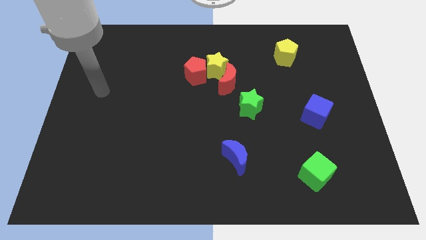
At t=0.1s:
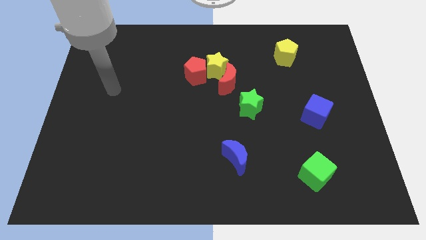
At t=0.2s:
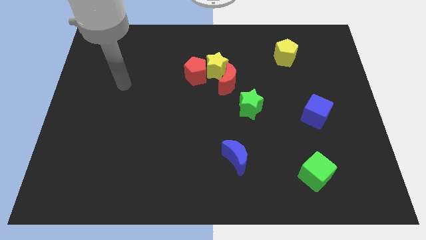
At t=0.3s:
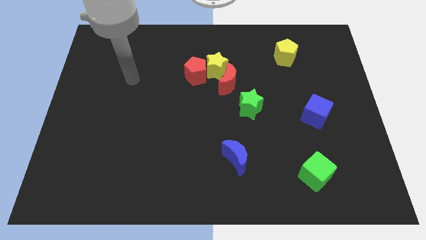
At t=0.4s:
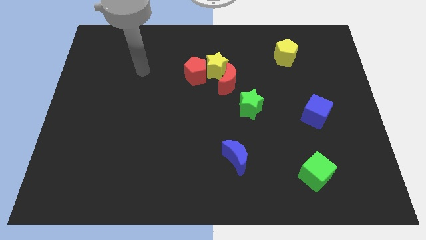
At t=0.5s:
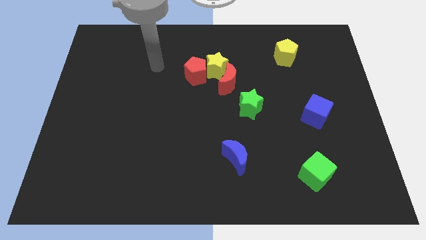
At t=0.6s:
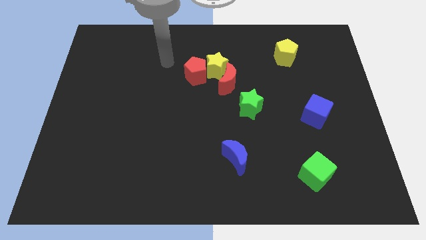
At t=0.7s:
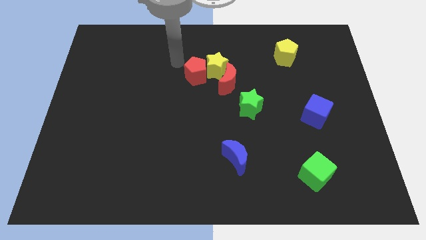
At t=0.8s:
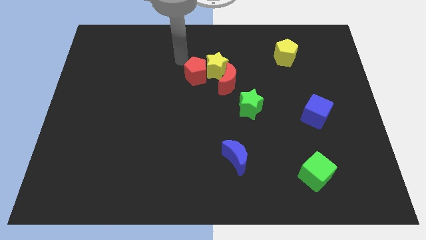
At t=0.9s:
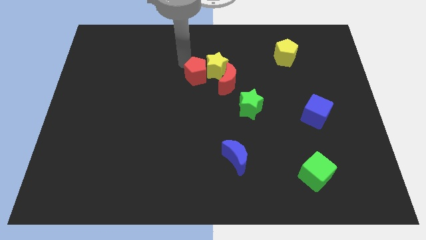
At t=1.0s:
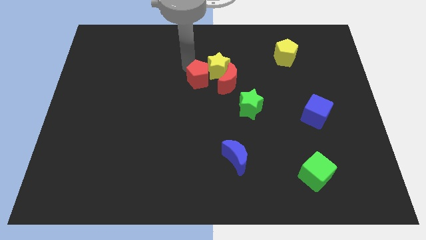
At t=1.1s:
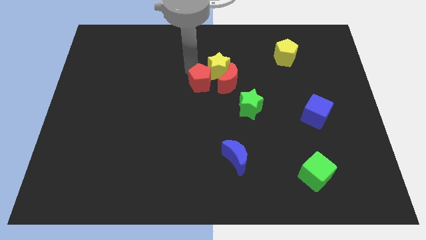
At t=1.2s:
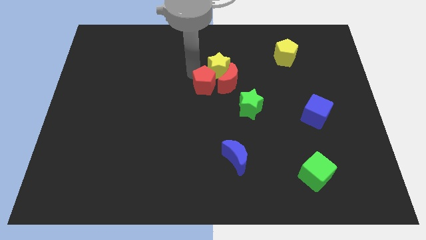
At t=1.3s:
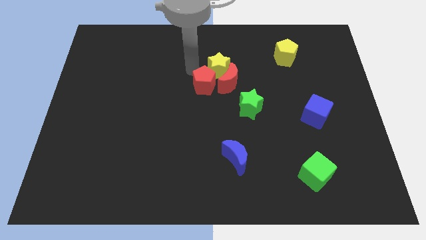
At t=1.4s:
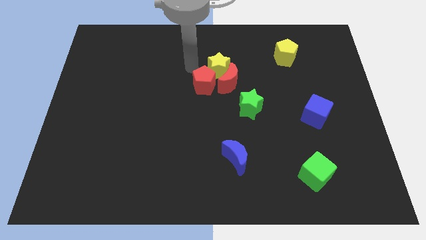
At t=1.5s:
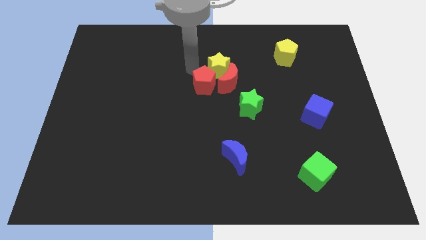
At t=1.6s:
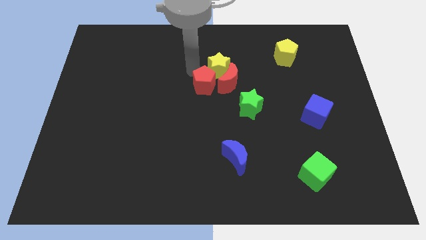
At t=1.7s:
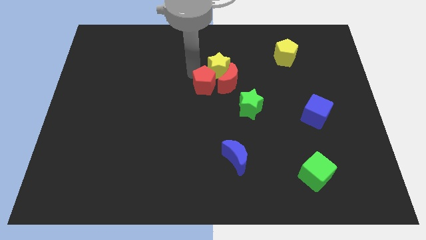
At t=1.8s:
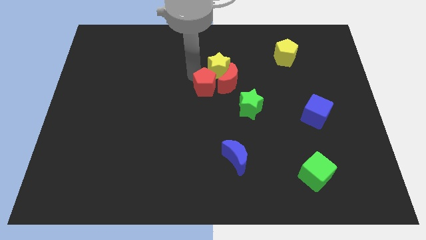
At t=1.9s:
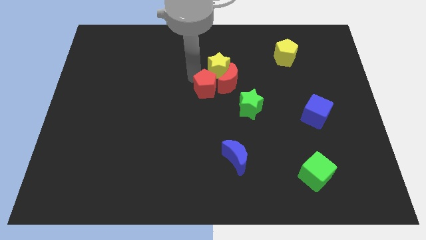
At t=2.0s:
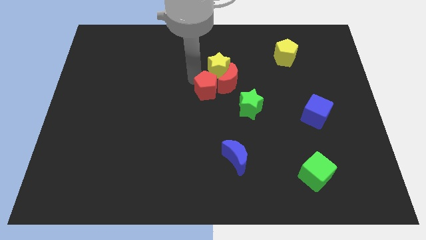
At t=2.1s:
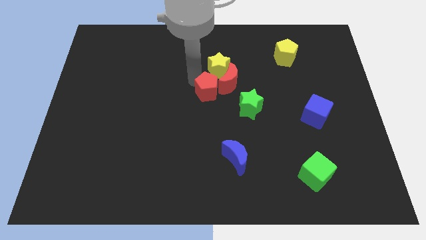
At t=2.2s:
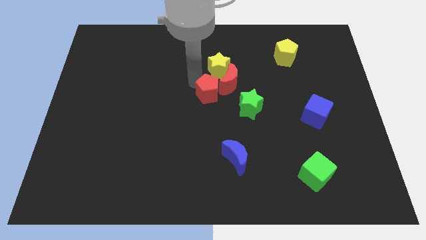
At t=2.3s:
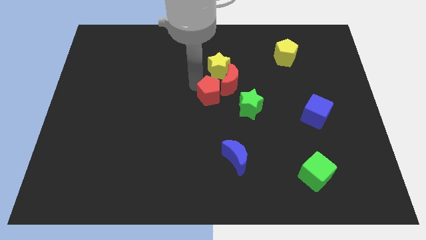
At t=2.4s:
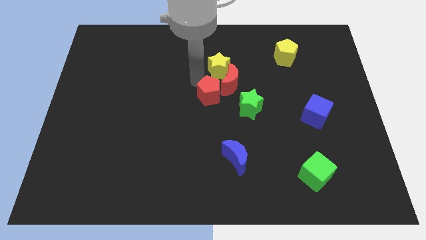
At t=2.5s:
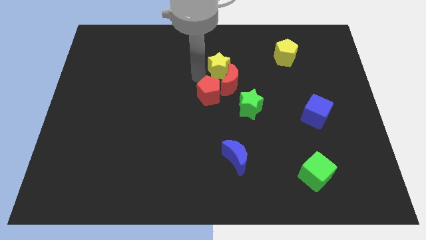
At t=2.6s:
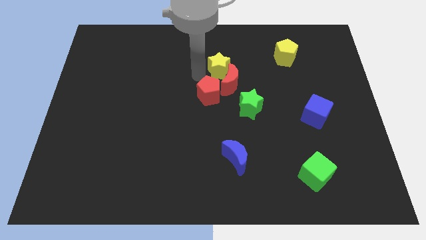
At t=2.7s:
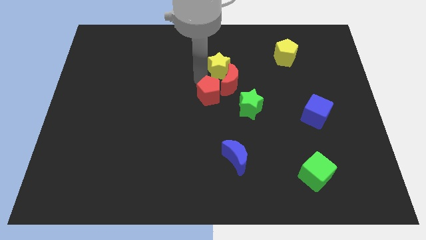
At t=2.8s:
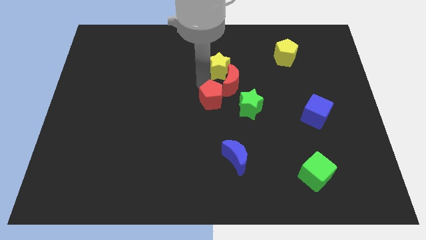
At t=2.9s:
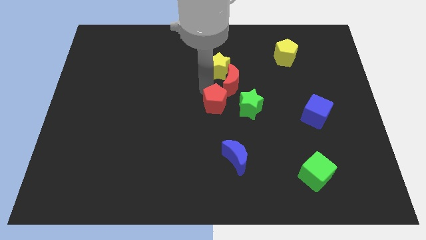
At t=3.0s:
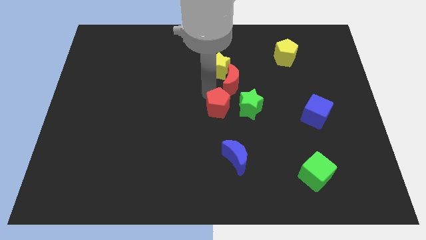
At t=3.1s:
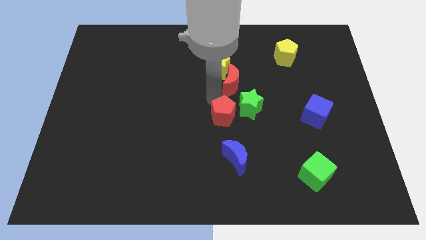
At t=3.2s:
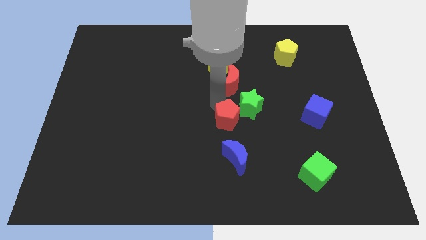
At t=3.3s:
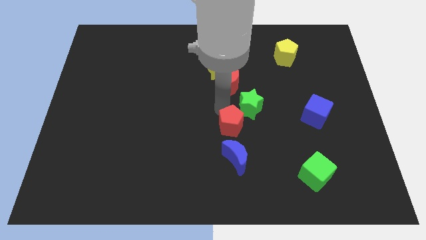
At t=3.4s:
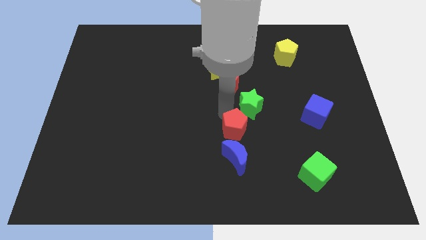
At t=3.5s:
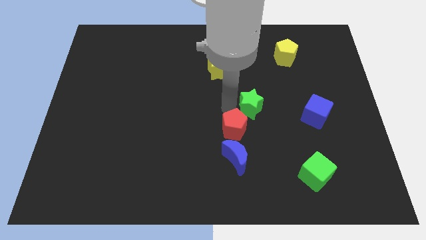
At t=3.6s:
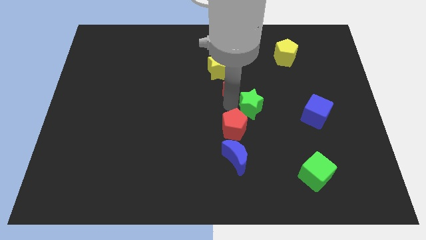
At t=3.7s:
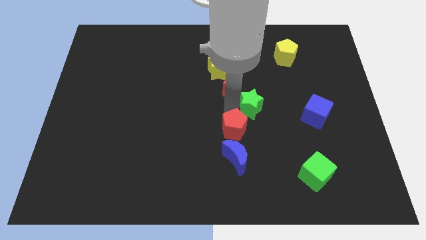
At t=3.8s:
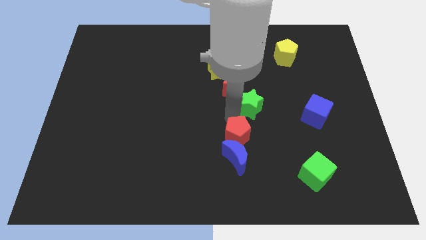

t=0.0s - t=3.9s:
put the red pentagon close to the blue moon

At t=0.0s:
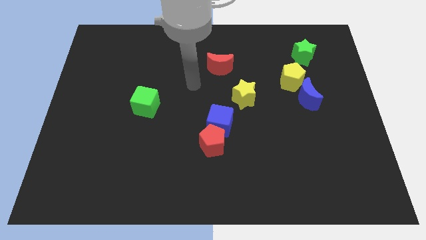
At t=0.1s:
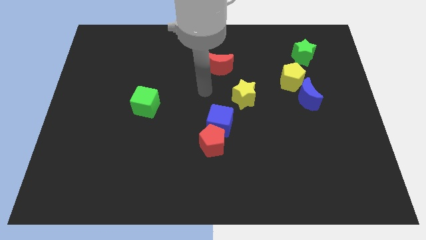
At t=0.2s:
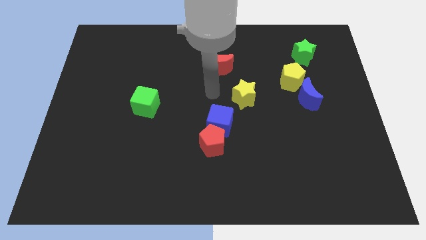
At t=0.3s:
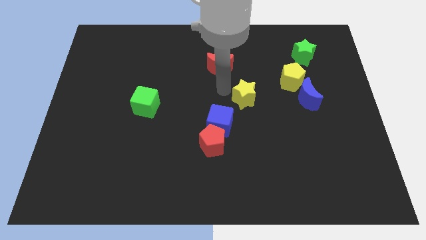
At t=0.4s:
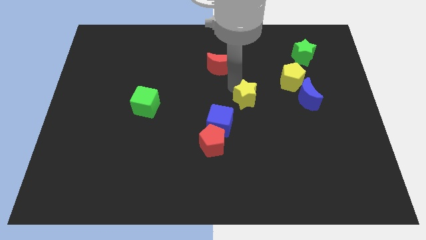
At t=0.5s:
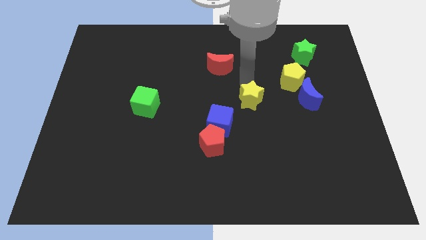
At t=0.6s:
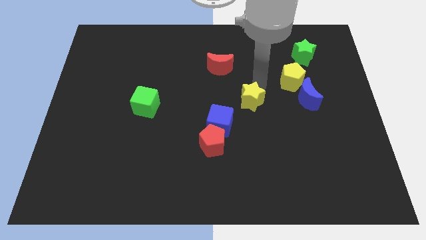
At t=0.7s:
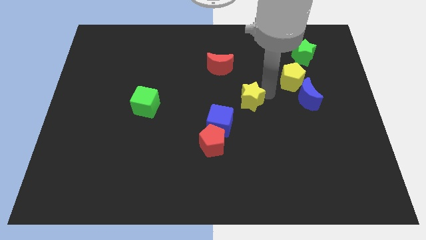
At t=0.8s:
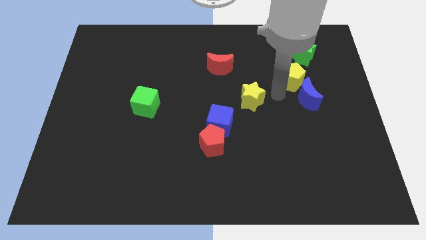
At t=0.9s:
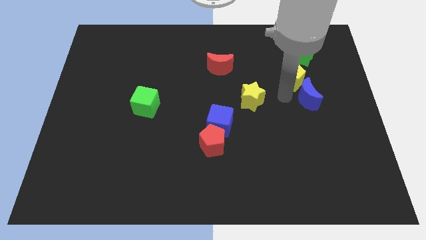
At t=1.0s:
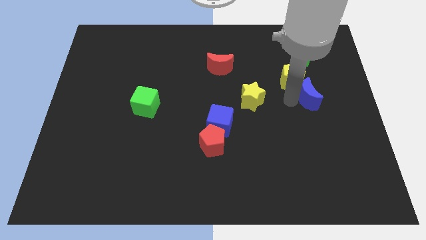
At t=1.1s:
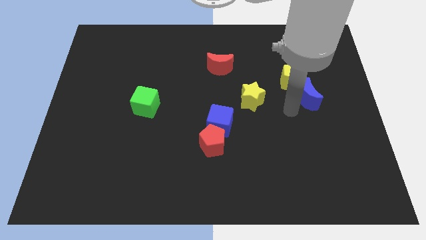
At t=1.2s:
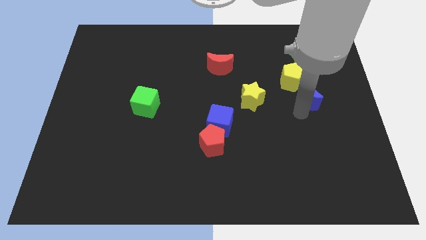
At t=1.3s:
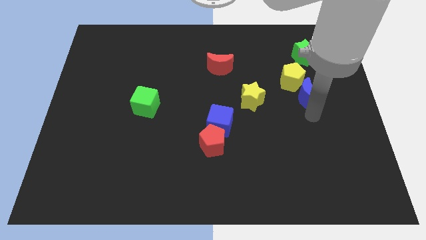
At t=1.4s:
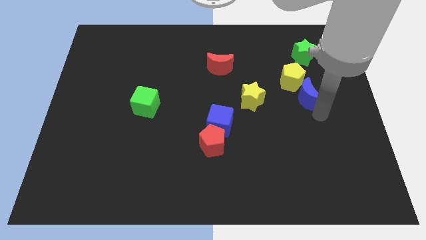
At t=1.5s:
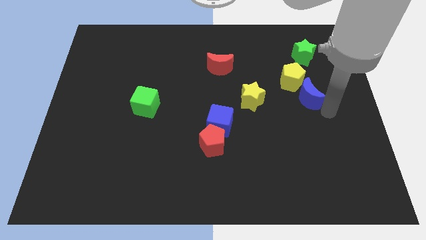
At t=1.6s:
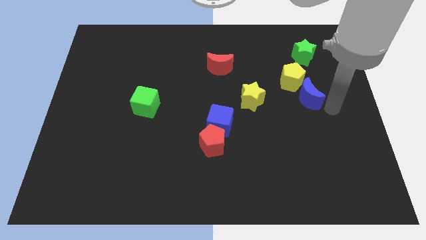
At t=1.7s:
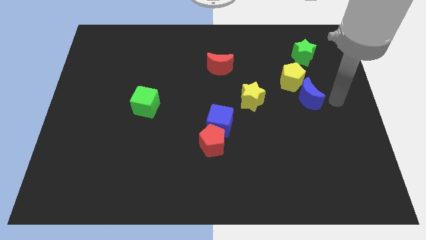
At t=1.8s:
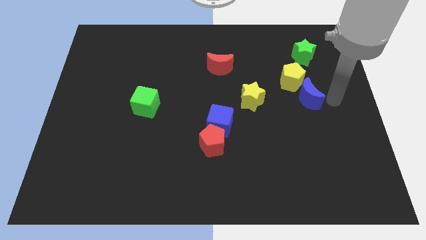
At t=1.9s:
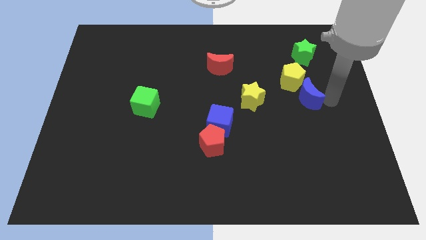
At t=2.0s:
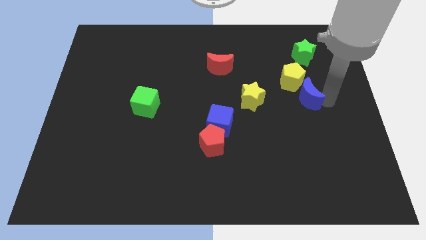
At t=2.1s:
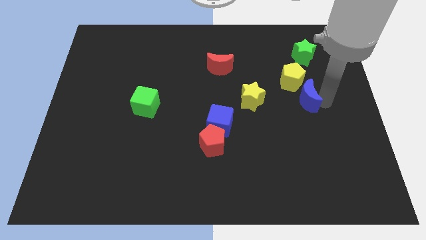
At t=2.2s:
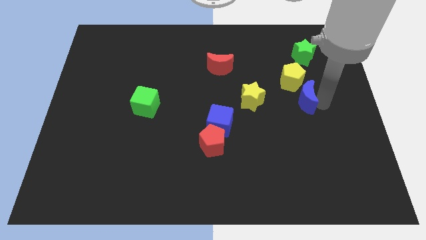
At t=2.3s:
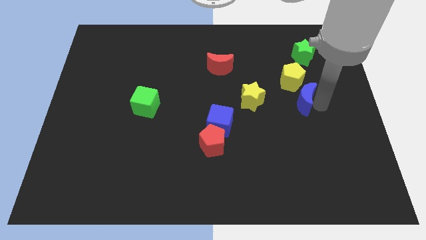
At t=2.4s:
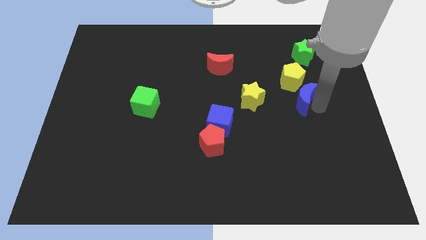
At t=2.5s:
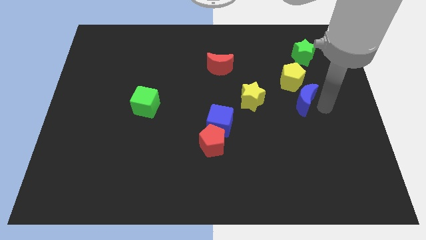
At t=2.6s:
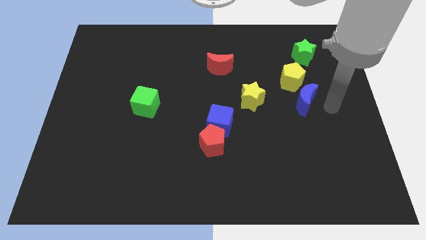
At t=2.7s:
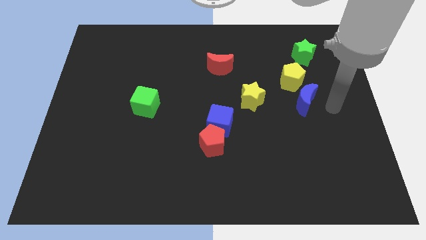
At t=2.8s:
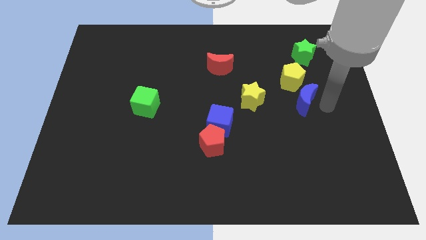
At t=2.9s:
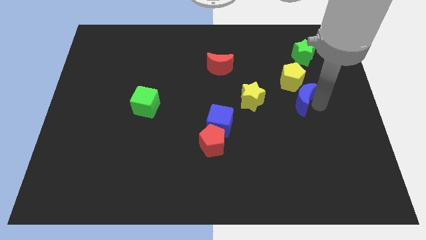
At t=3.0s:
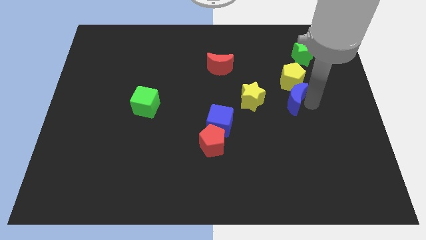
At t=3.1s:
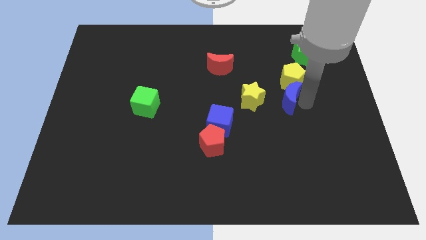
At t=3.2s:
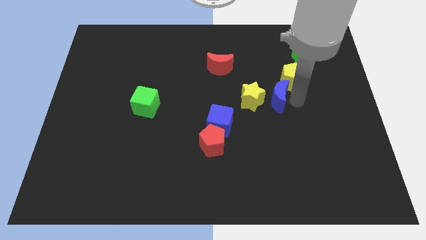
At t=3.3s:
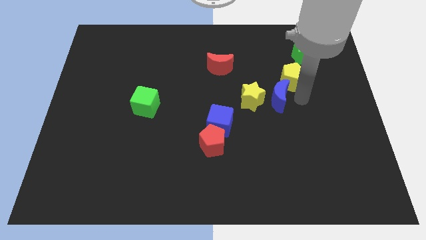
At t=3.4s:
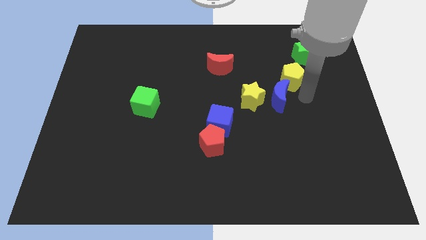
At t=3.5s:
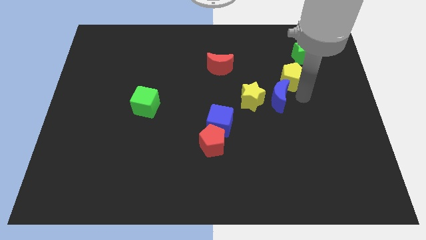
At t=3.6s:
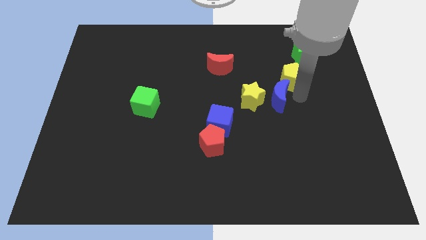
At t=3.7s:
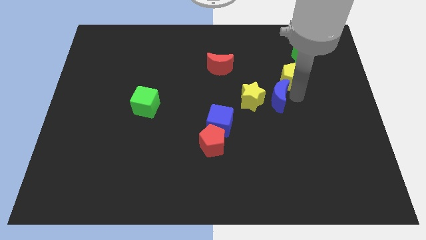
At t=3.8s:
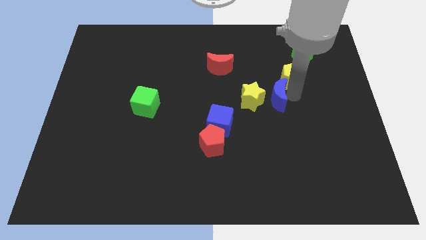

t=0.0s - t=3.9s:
slide the blue moon towards the yellow star
